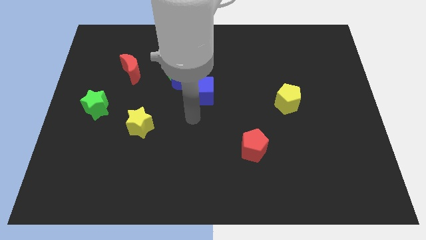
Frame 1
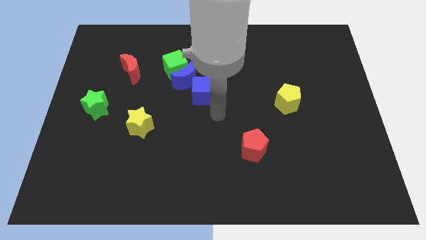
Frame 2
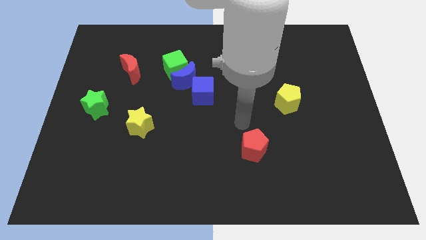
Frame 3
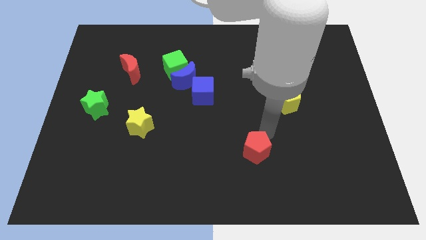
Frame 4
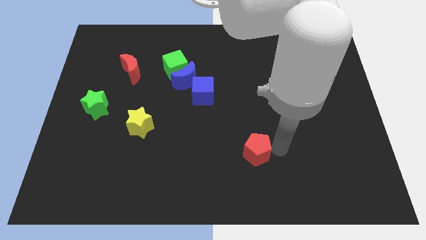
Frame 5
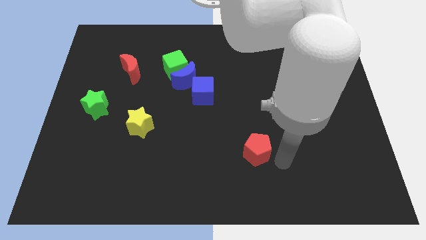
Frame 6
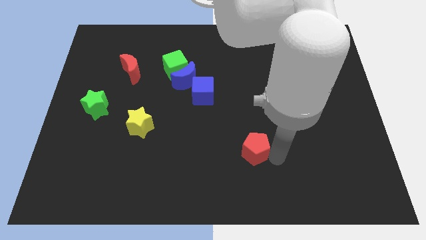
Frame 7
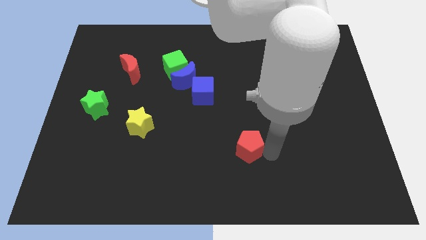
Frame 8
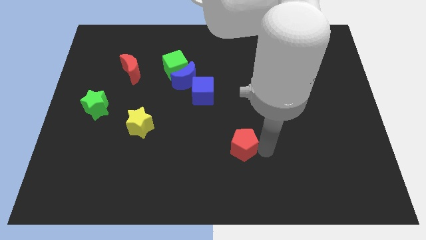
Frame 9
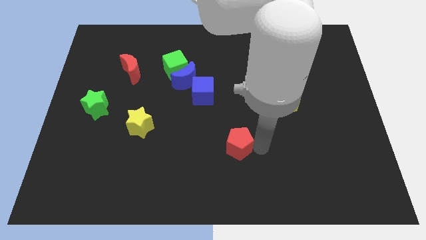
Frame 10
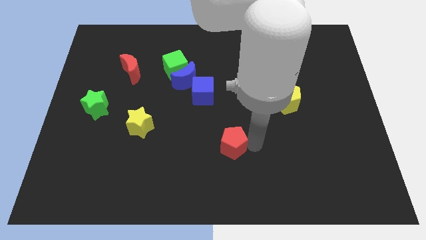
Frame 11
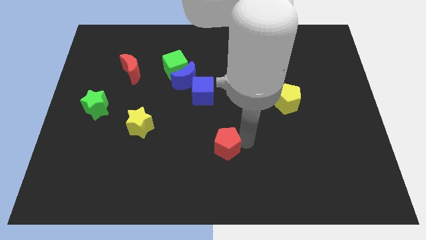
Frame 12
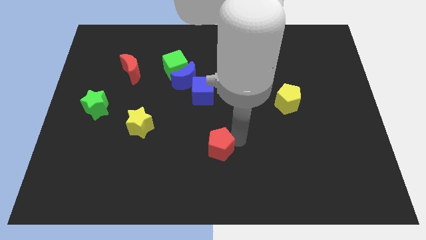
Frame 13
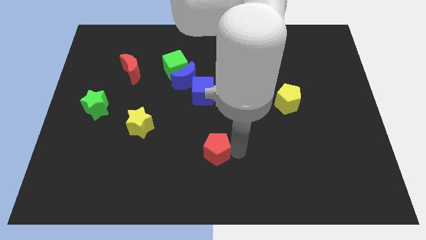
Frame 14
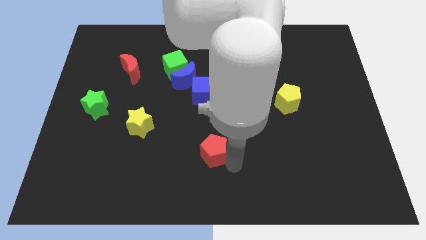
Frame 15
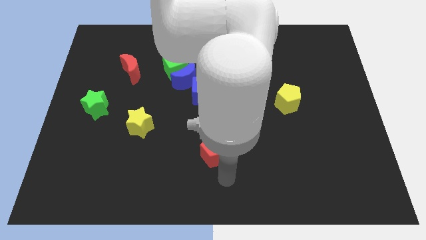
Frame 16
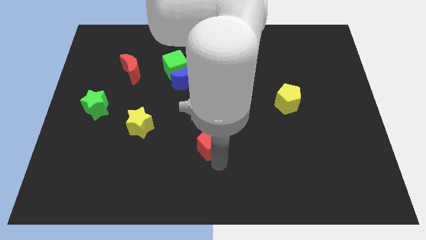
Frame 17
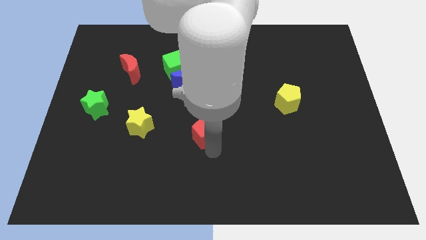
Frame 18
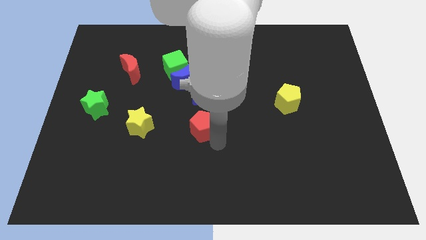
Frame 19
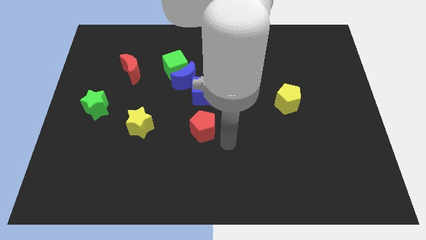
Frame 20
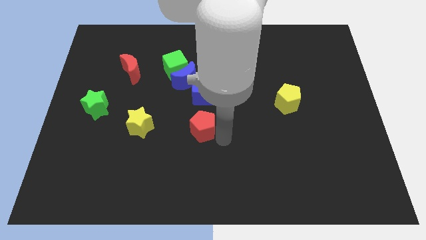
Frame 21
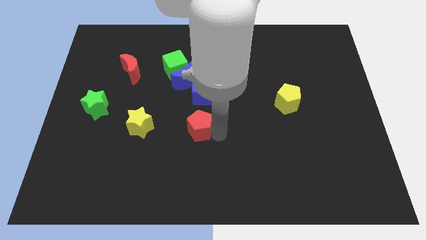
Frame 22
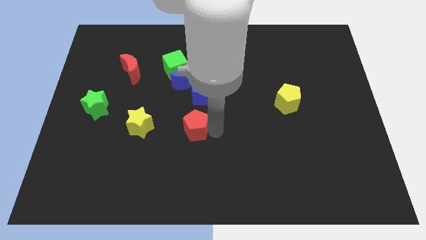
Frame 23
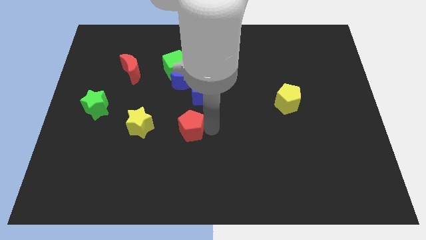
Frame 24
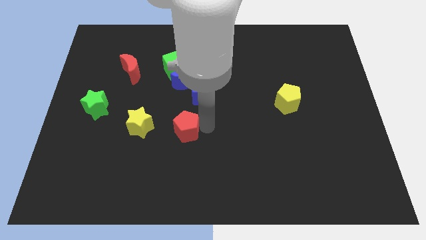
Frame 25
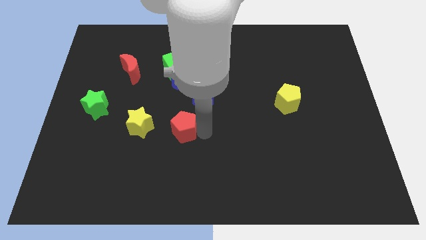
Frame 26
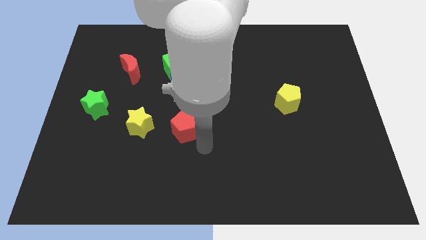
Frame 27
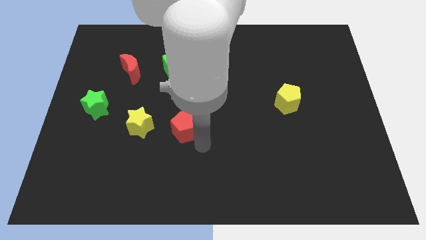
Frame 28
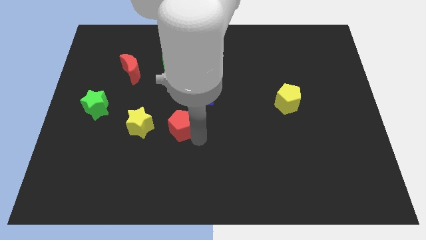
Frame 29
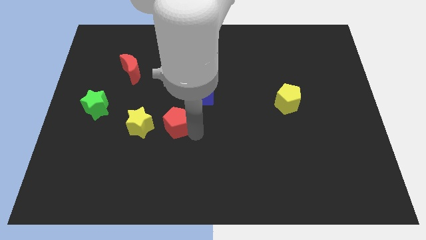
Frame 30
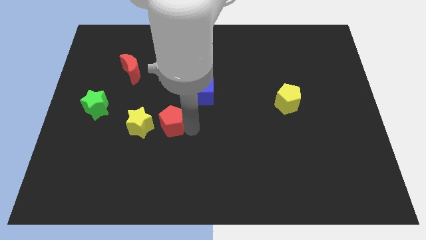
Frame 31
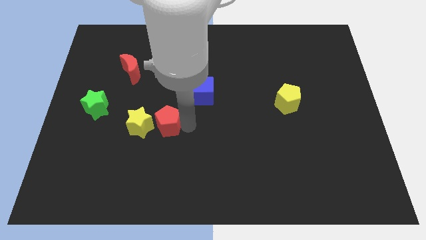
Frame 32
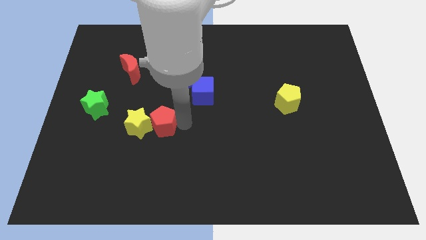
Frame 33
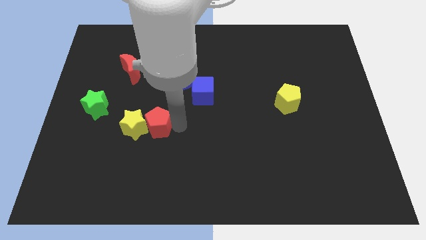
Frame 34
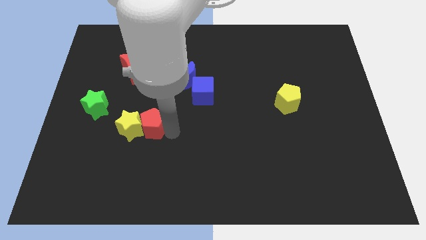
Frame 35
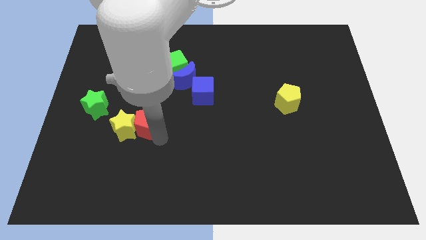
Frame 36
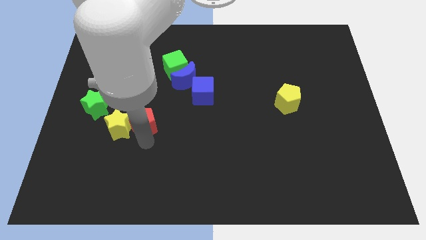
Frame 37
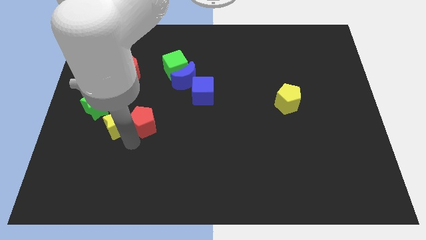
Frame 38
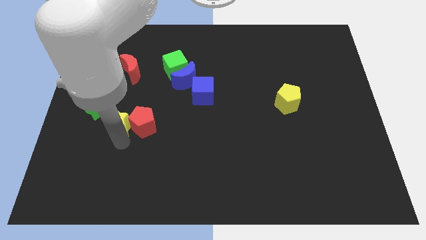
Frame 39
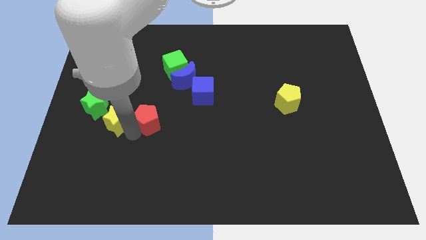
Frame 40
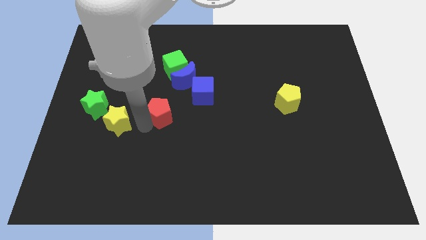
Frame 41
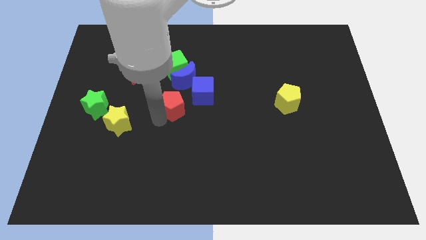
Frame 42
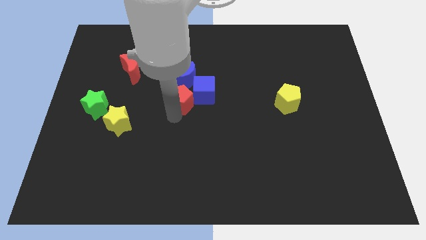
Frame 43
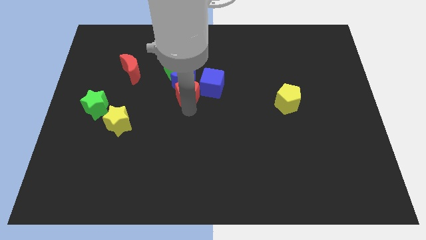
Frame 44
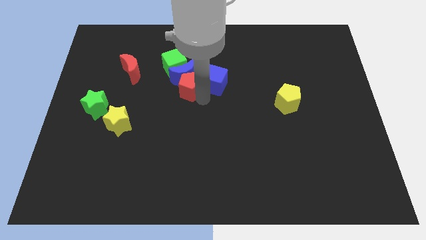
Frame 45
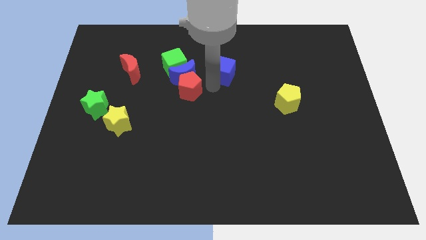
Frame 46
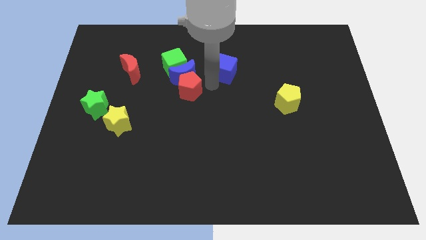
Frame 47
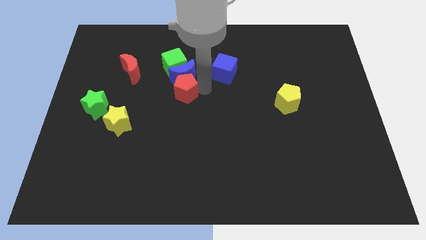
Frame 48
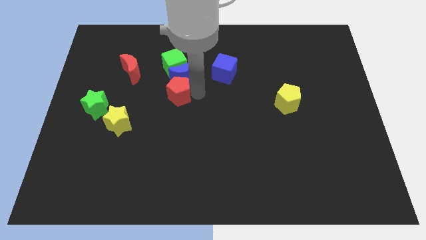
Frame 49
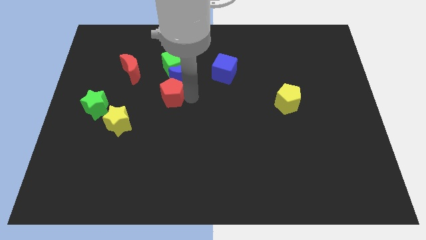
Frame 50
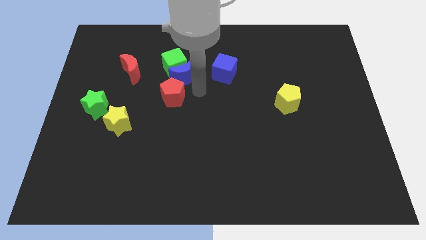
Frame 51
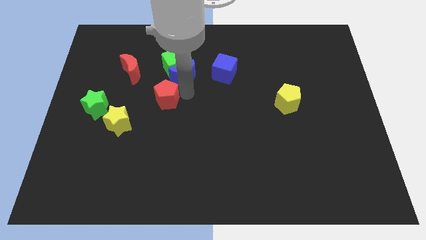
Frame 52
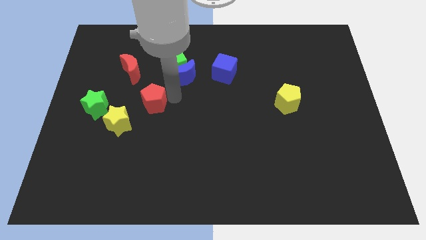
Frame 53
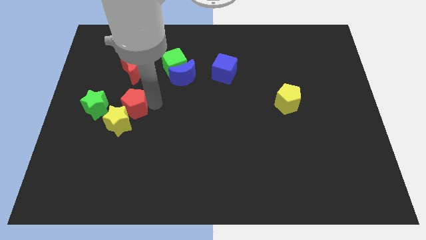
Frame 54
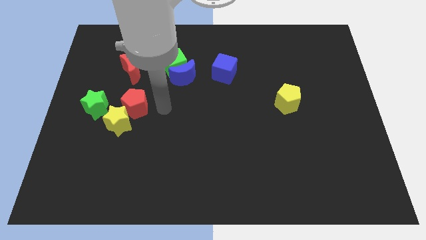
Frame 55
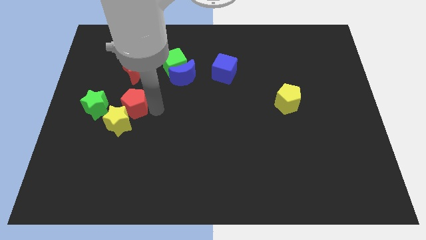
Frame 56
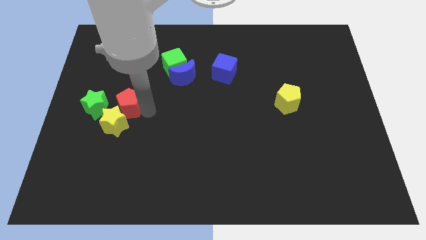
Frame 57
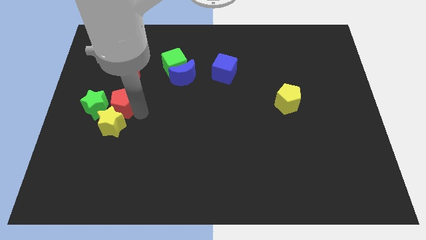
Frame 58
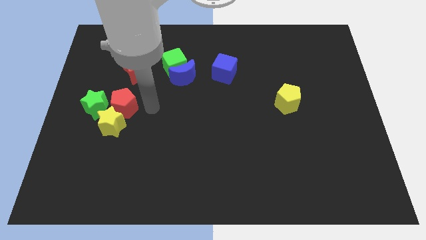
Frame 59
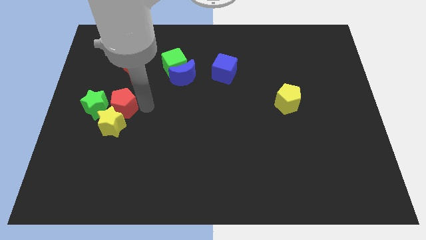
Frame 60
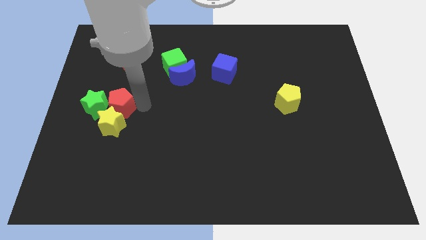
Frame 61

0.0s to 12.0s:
slide the red pentagon to the top left of the yellow star
